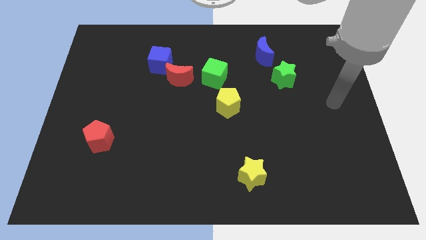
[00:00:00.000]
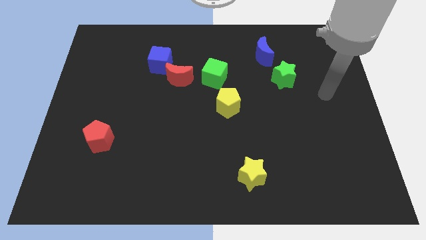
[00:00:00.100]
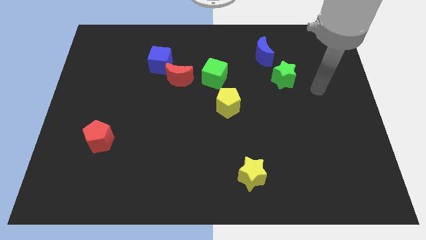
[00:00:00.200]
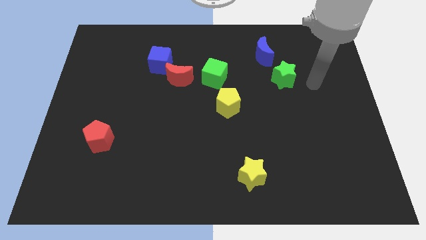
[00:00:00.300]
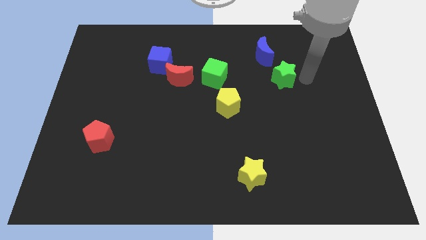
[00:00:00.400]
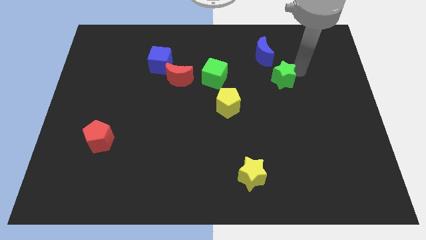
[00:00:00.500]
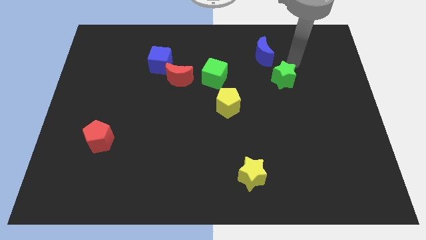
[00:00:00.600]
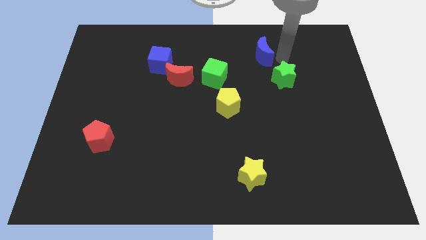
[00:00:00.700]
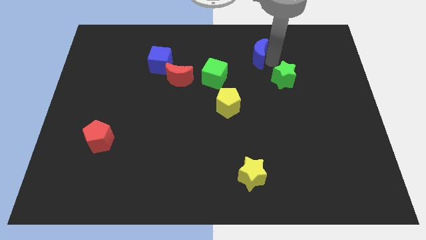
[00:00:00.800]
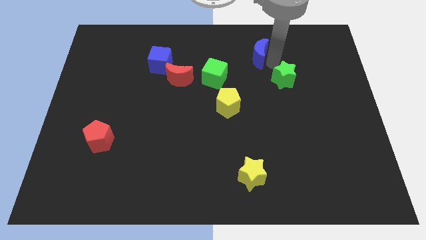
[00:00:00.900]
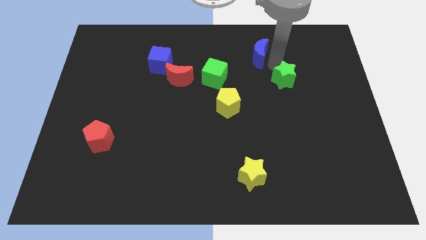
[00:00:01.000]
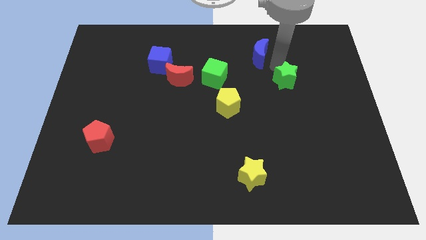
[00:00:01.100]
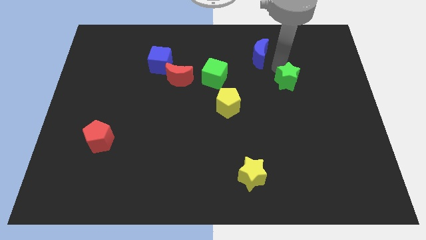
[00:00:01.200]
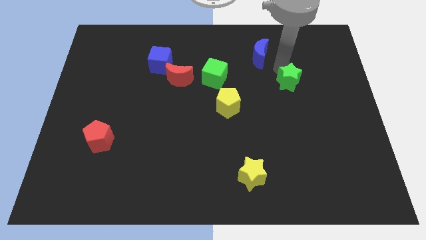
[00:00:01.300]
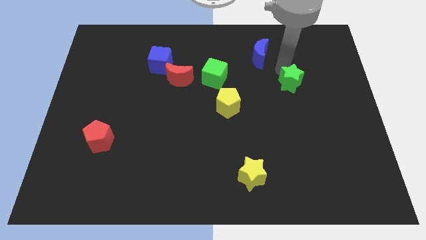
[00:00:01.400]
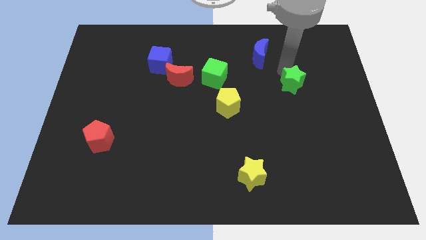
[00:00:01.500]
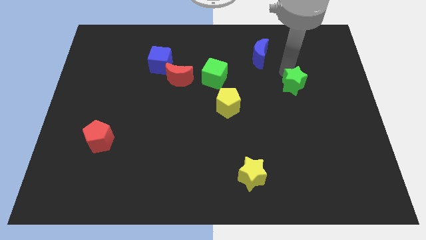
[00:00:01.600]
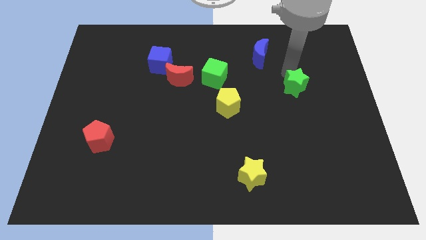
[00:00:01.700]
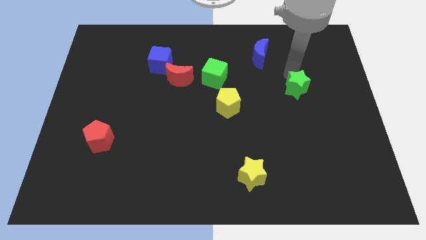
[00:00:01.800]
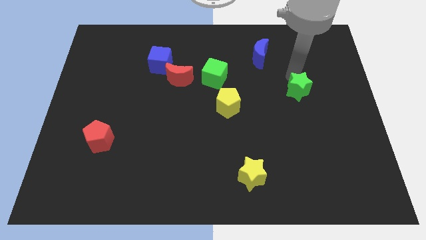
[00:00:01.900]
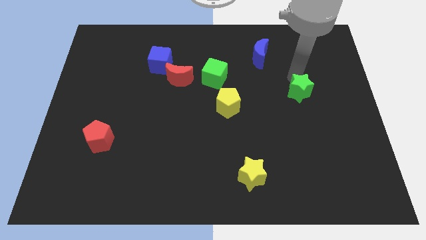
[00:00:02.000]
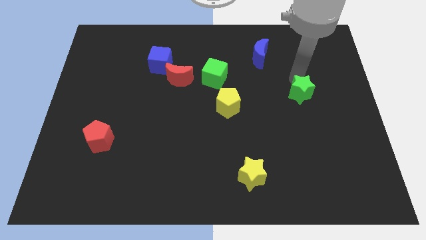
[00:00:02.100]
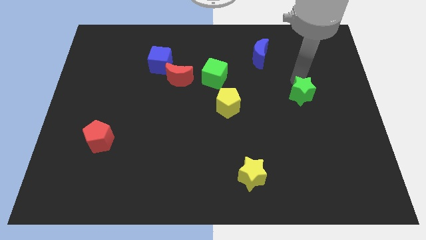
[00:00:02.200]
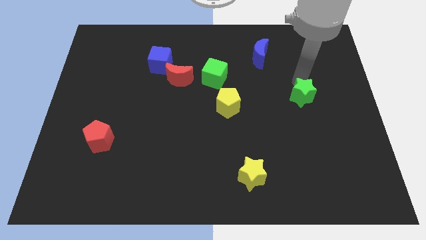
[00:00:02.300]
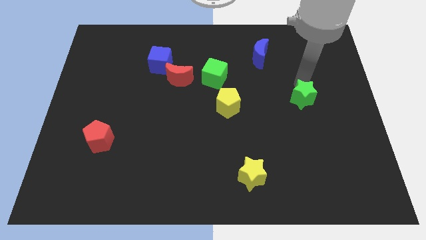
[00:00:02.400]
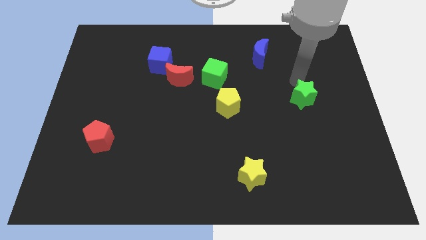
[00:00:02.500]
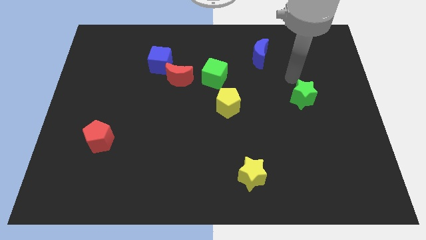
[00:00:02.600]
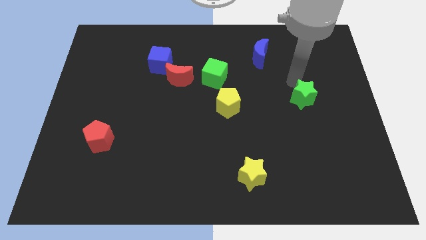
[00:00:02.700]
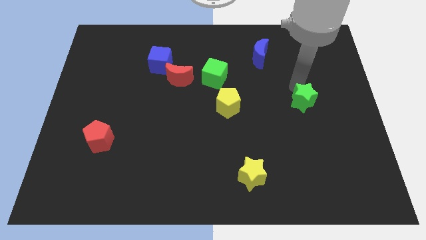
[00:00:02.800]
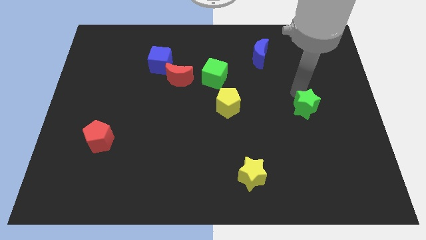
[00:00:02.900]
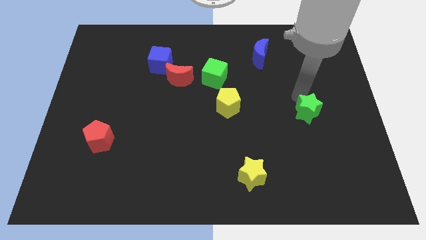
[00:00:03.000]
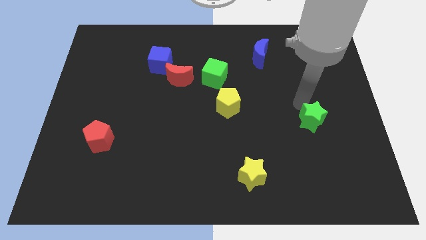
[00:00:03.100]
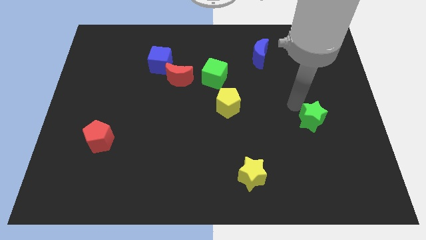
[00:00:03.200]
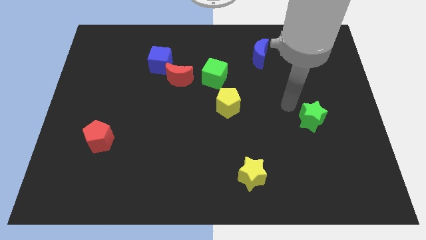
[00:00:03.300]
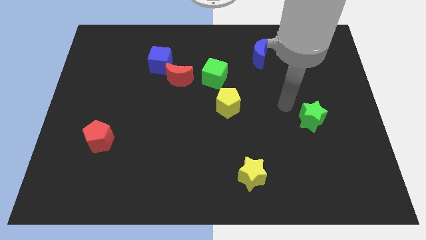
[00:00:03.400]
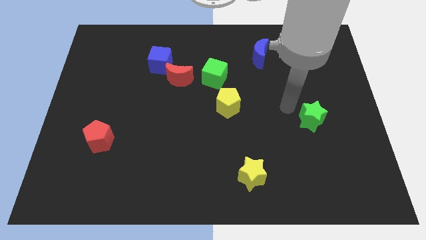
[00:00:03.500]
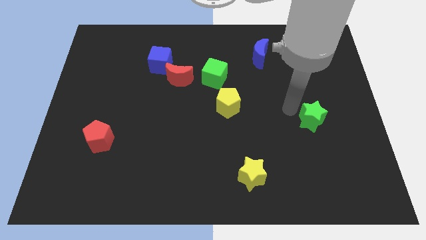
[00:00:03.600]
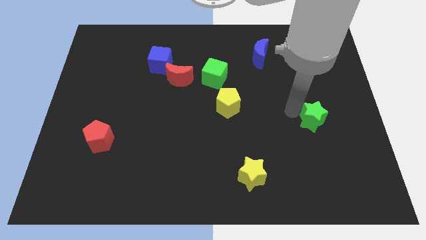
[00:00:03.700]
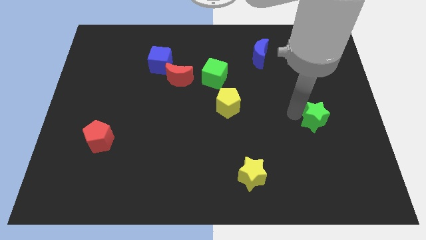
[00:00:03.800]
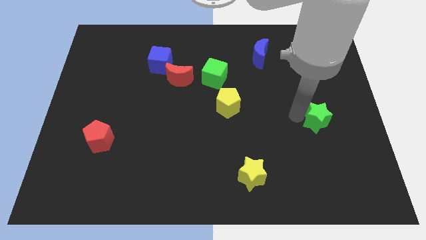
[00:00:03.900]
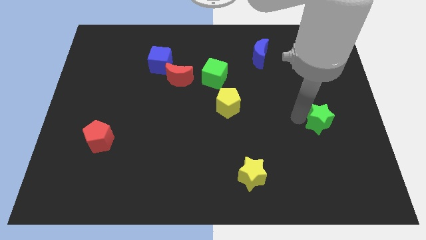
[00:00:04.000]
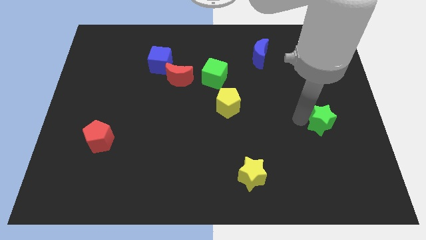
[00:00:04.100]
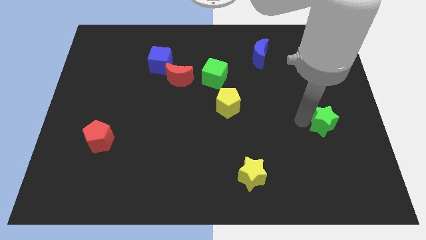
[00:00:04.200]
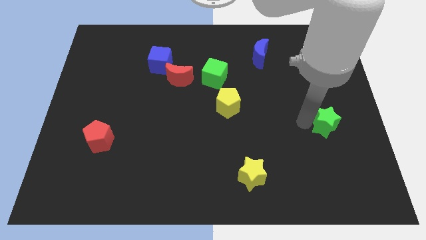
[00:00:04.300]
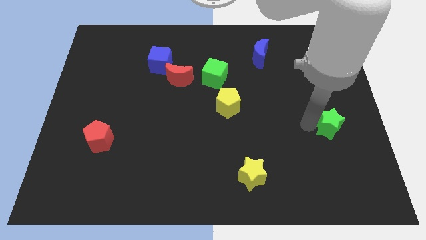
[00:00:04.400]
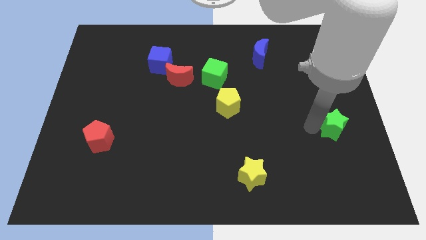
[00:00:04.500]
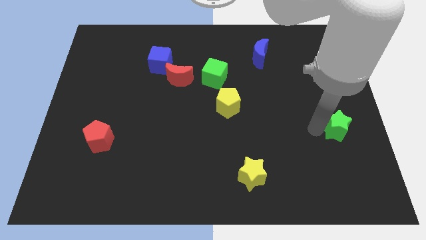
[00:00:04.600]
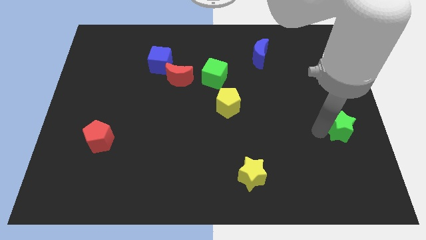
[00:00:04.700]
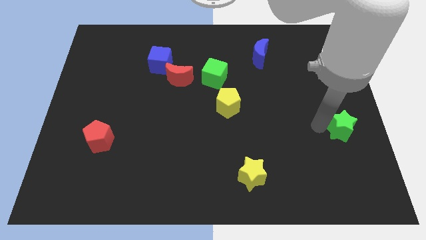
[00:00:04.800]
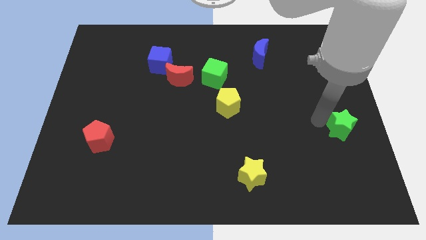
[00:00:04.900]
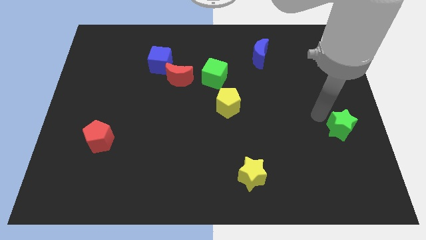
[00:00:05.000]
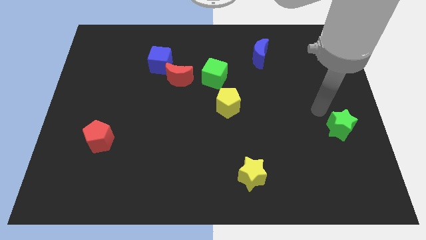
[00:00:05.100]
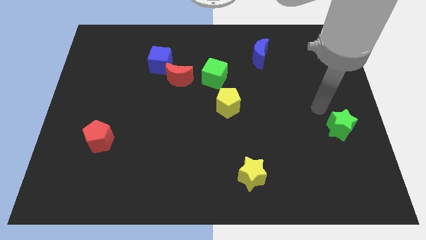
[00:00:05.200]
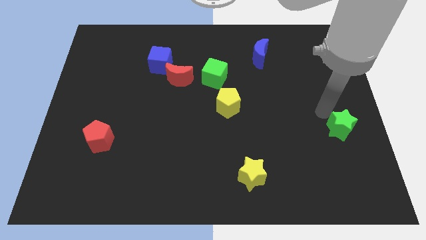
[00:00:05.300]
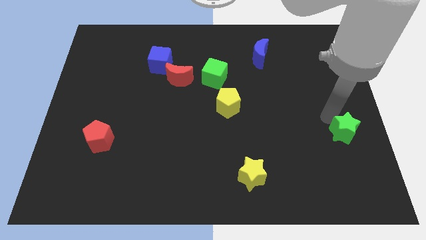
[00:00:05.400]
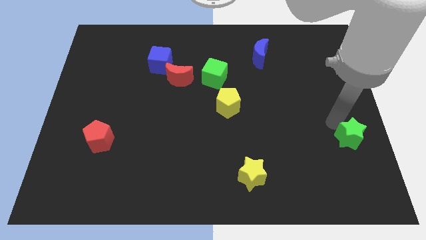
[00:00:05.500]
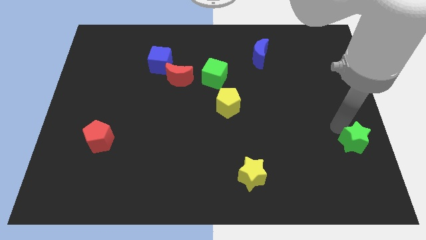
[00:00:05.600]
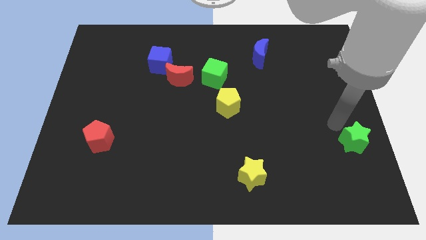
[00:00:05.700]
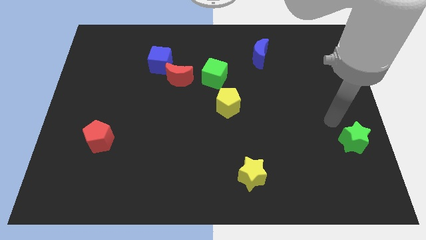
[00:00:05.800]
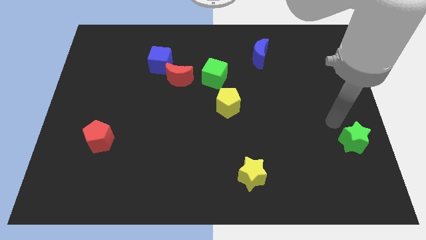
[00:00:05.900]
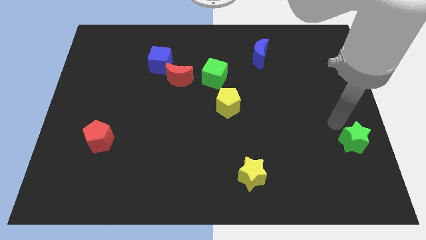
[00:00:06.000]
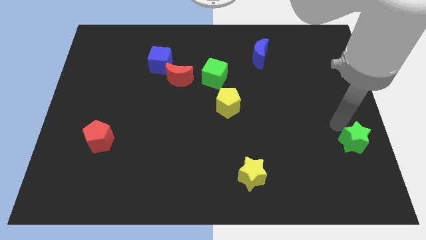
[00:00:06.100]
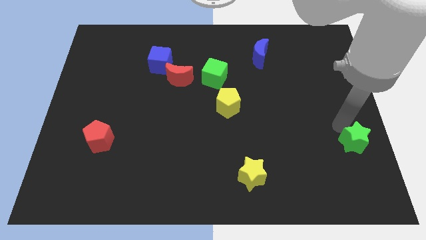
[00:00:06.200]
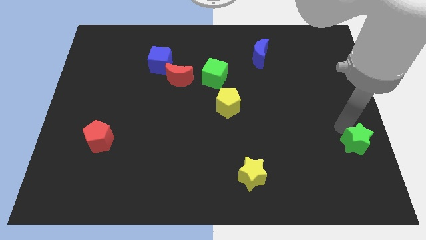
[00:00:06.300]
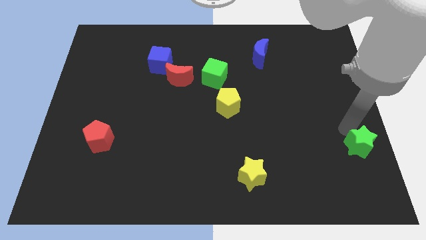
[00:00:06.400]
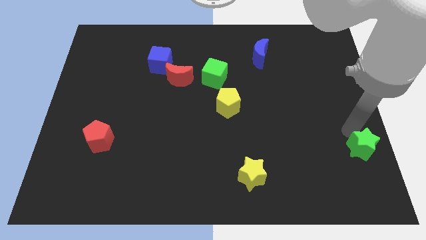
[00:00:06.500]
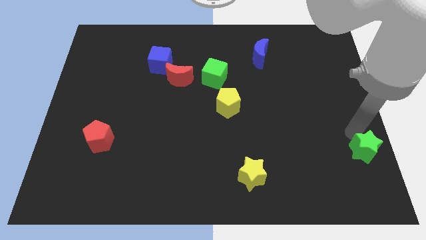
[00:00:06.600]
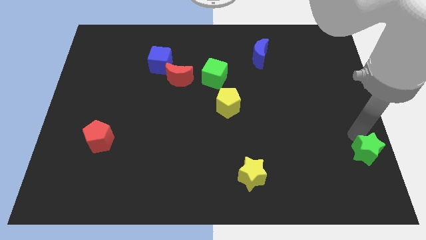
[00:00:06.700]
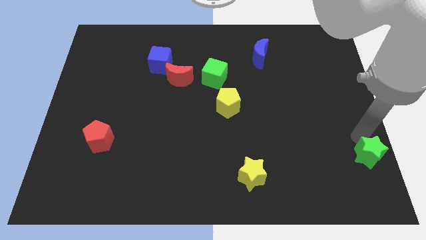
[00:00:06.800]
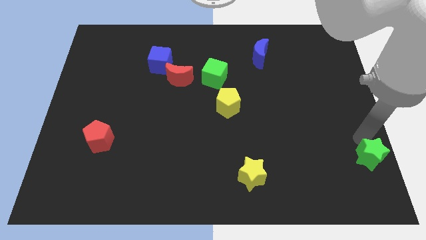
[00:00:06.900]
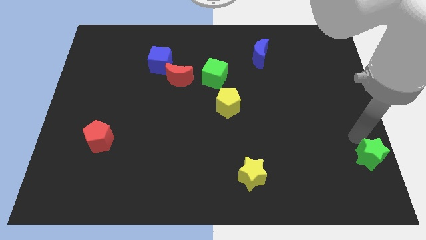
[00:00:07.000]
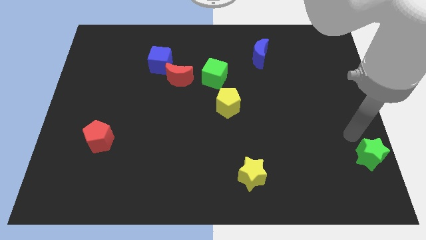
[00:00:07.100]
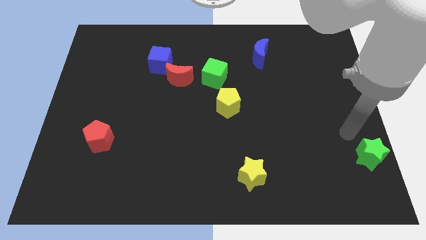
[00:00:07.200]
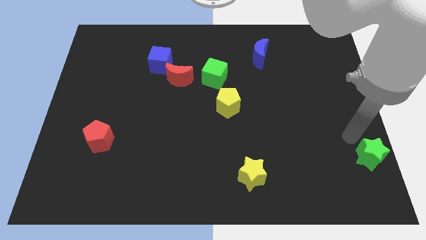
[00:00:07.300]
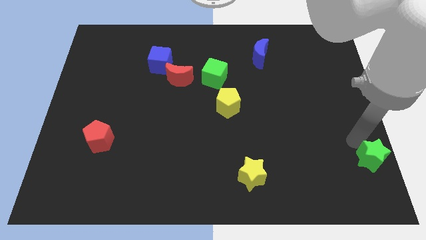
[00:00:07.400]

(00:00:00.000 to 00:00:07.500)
put the green star to the bottom right corner

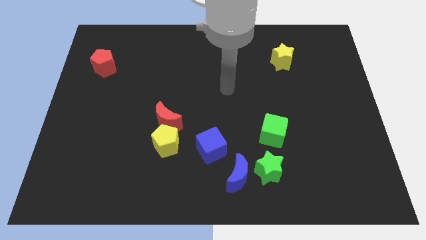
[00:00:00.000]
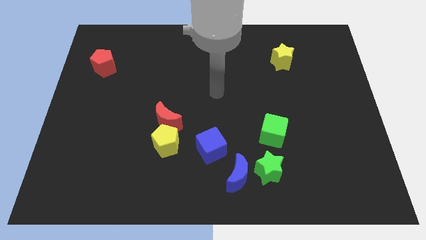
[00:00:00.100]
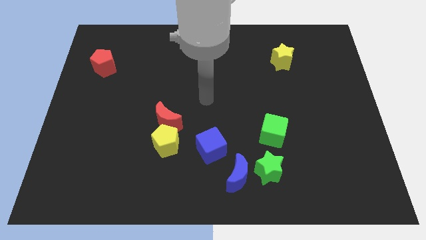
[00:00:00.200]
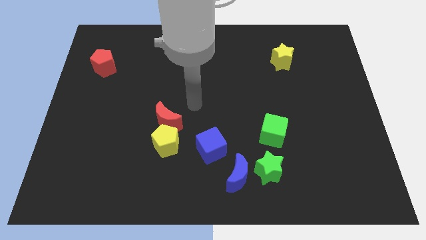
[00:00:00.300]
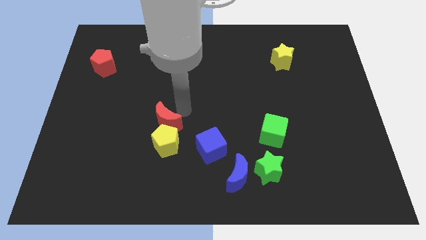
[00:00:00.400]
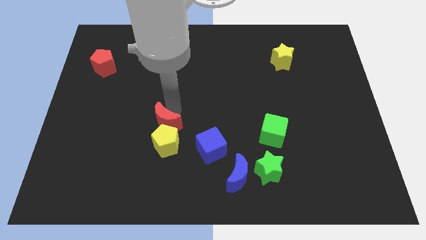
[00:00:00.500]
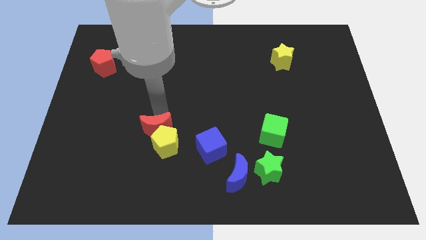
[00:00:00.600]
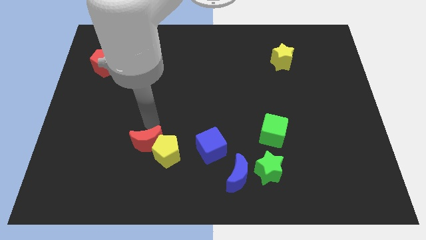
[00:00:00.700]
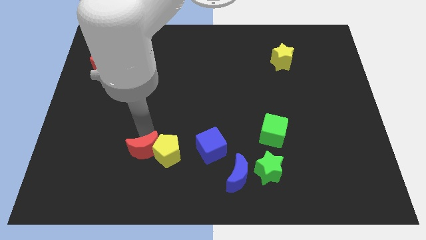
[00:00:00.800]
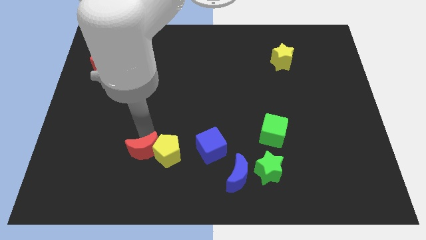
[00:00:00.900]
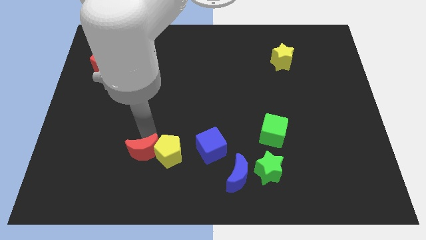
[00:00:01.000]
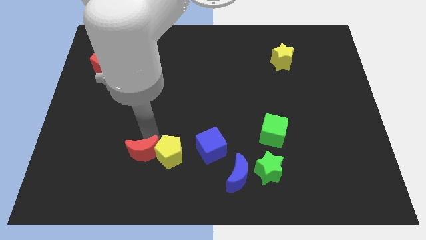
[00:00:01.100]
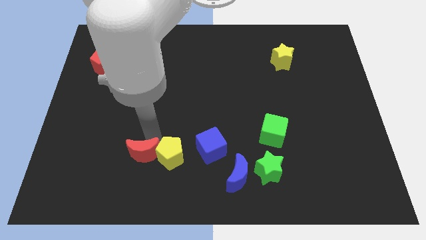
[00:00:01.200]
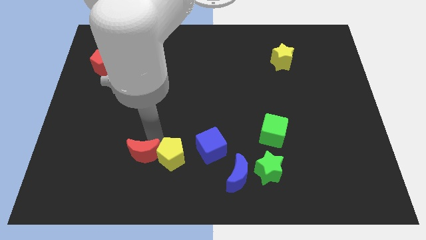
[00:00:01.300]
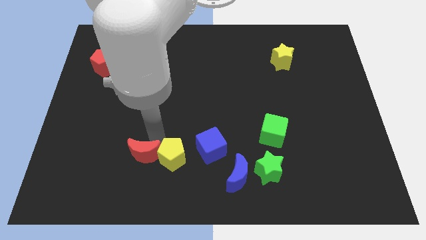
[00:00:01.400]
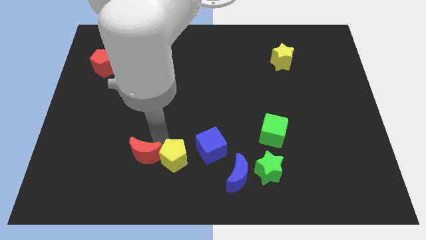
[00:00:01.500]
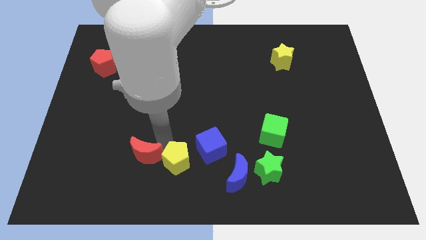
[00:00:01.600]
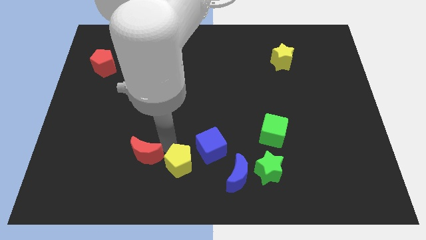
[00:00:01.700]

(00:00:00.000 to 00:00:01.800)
push the yellow pentagon to the bottom
